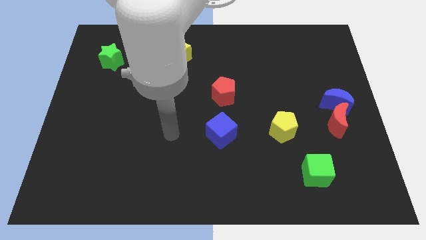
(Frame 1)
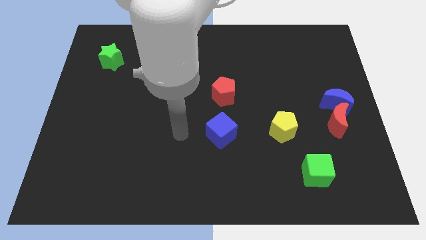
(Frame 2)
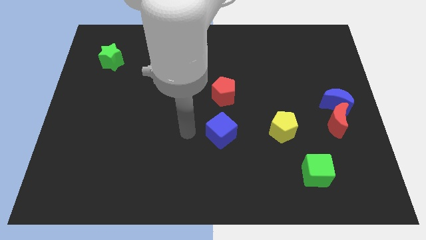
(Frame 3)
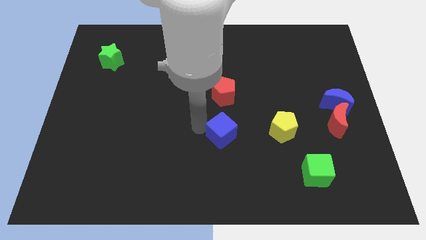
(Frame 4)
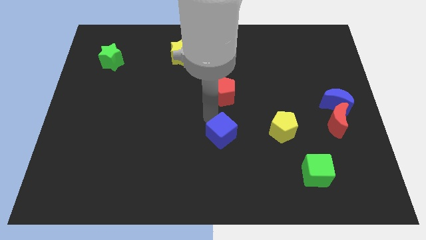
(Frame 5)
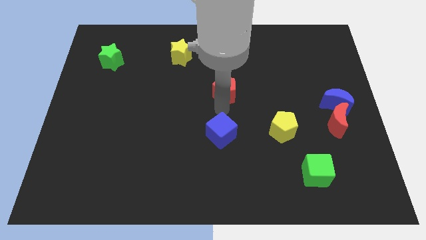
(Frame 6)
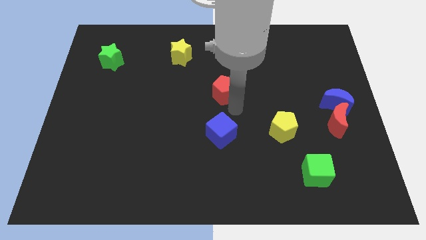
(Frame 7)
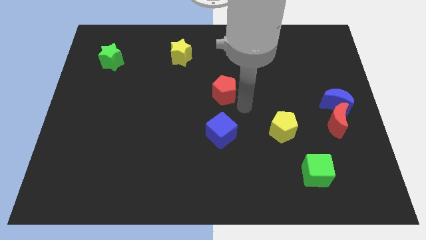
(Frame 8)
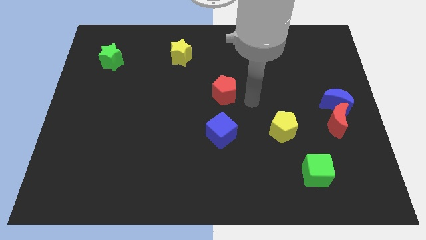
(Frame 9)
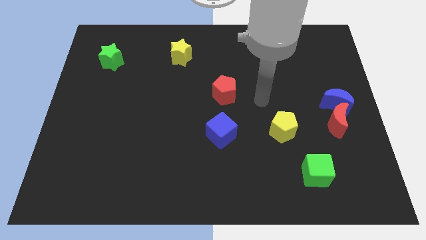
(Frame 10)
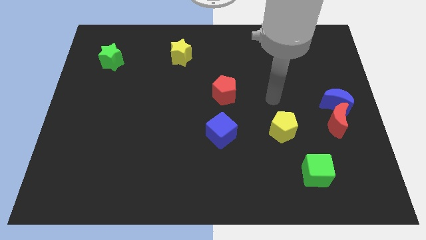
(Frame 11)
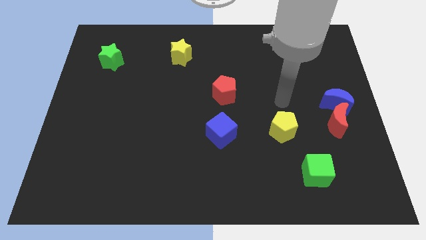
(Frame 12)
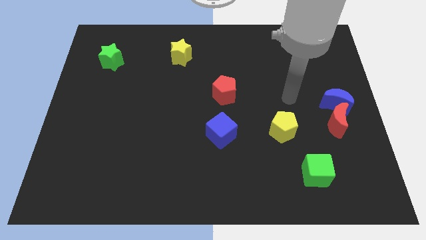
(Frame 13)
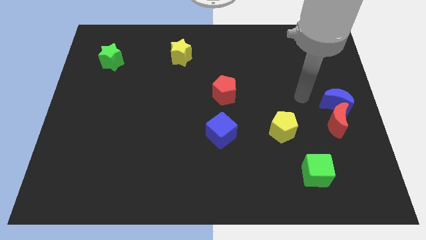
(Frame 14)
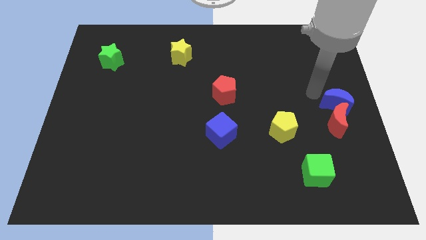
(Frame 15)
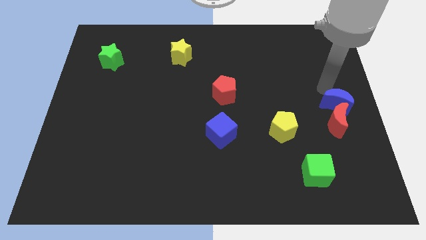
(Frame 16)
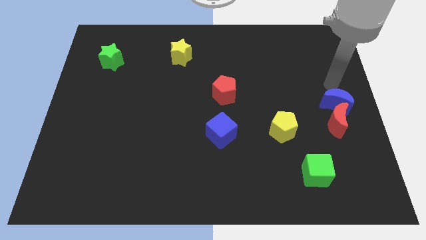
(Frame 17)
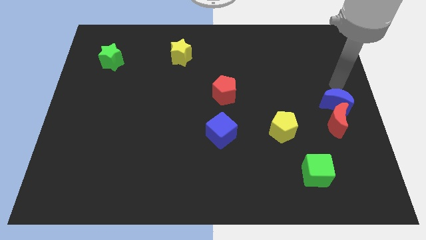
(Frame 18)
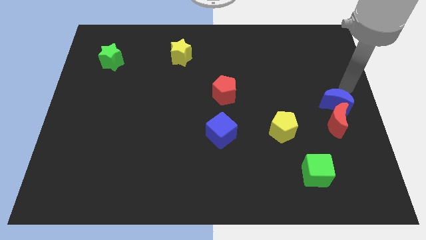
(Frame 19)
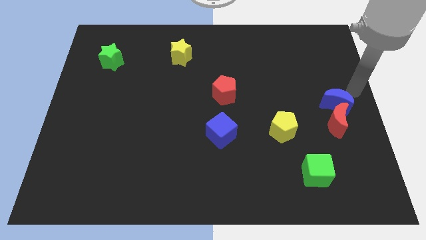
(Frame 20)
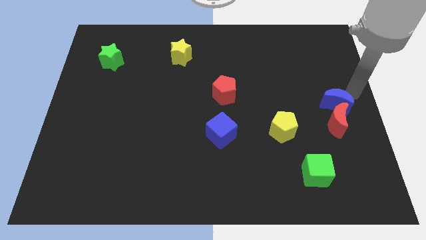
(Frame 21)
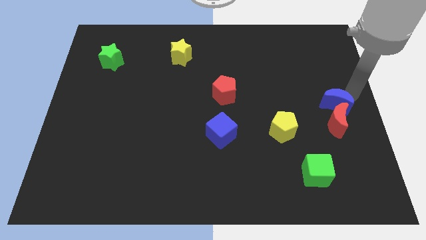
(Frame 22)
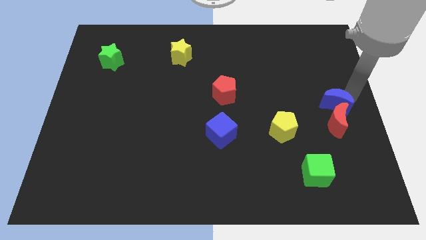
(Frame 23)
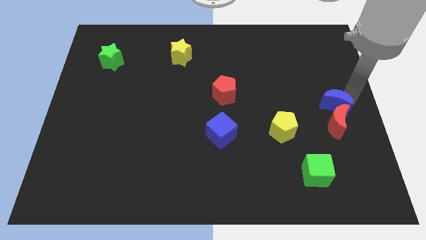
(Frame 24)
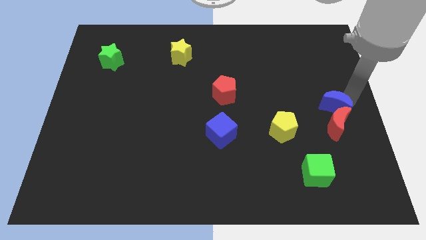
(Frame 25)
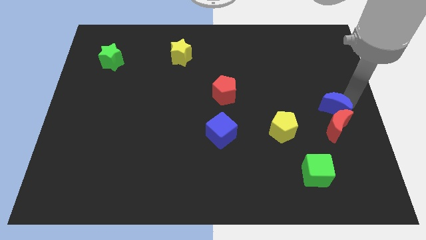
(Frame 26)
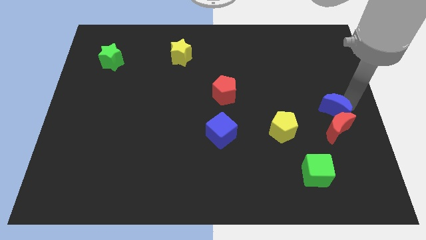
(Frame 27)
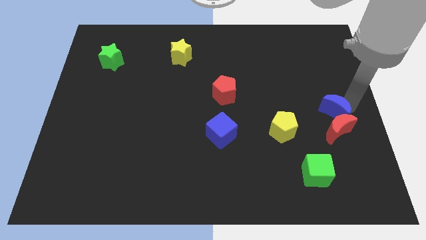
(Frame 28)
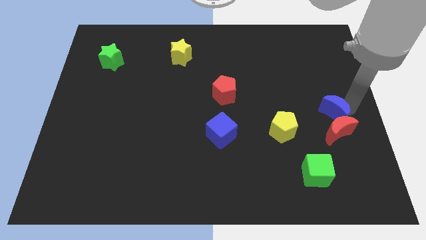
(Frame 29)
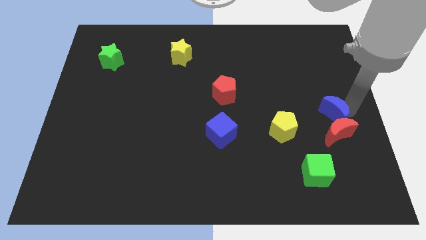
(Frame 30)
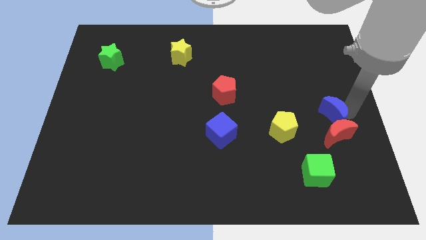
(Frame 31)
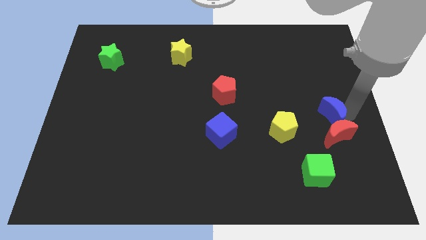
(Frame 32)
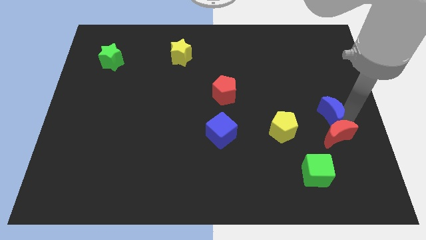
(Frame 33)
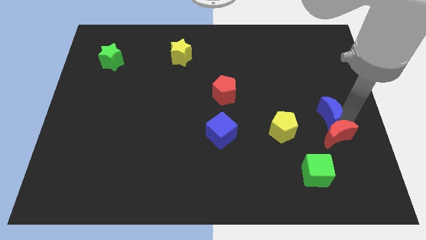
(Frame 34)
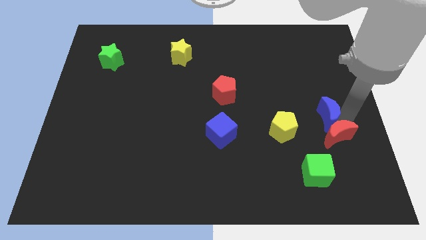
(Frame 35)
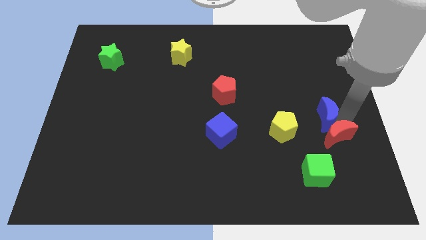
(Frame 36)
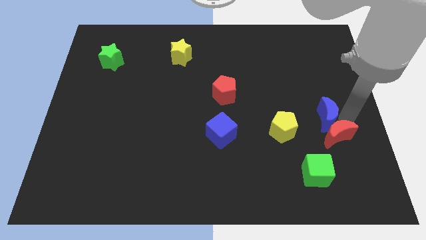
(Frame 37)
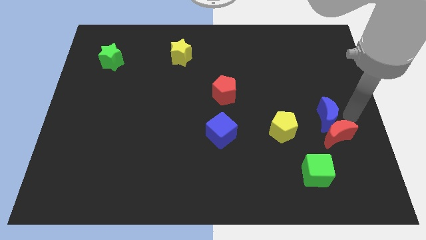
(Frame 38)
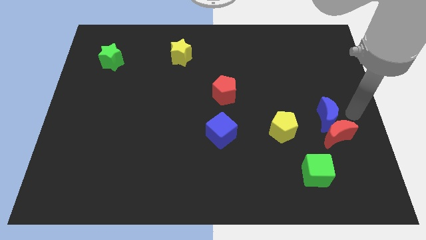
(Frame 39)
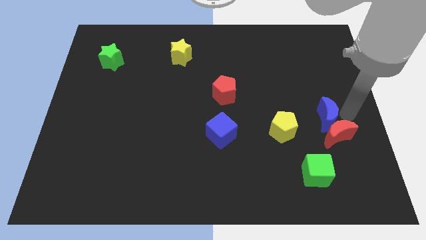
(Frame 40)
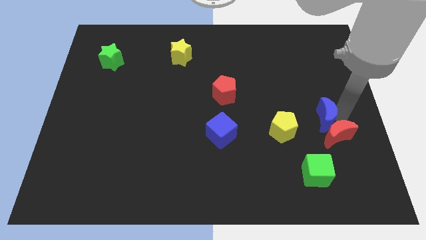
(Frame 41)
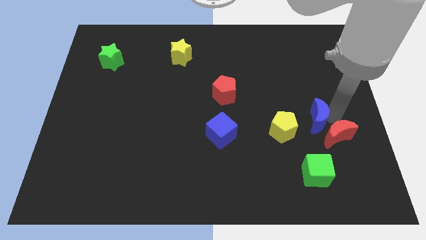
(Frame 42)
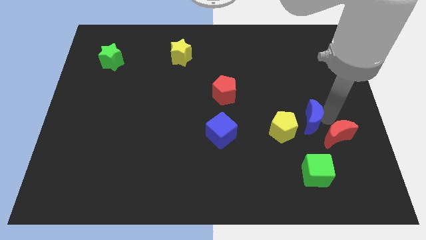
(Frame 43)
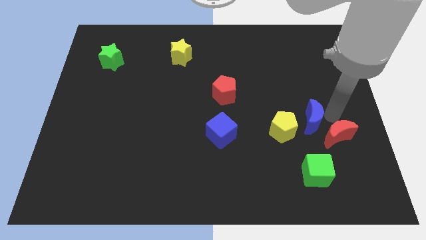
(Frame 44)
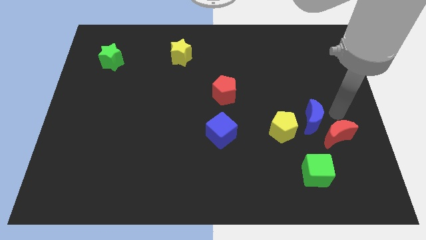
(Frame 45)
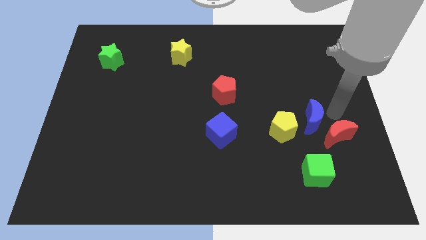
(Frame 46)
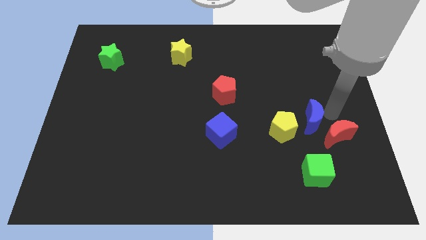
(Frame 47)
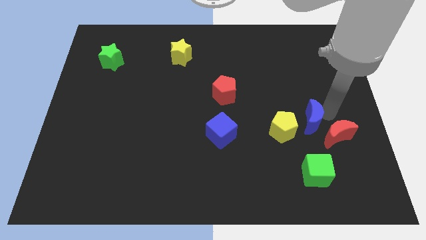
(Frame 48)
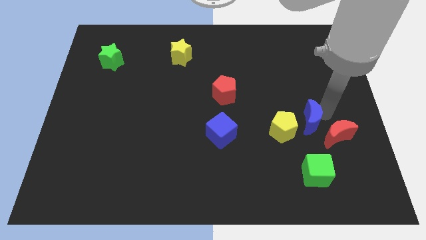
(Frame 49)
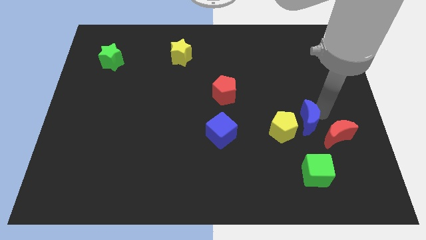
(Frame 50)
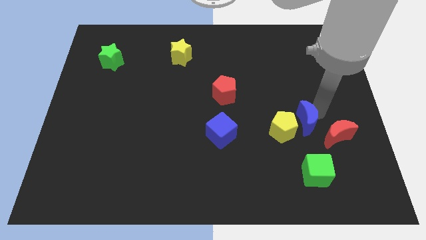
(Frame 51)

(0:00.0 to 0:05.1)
move the blue moon towards the yellow pentagon

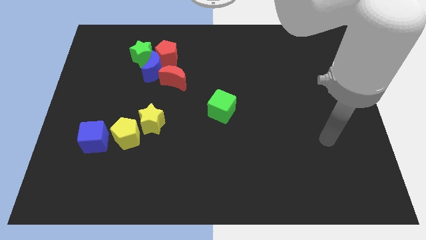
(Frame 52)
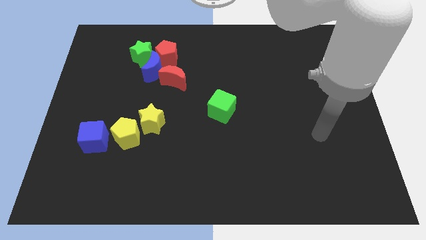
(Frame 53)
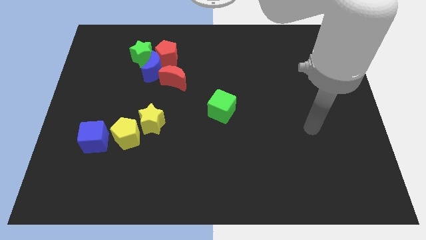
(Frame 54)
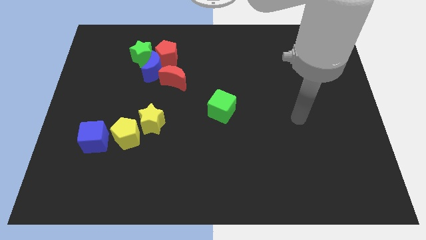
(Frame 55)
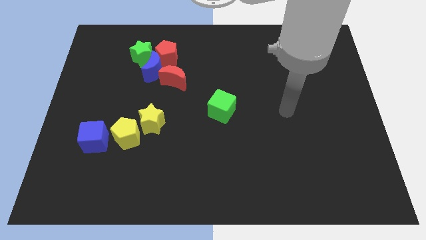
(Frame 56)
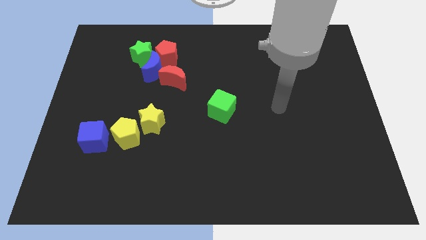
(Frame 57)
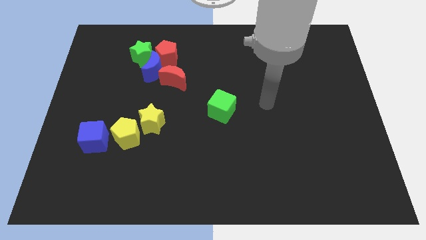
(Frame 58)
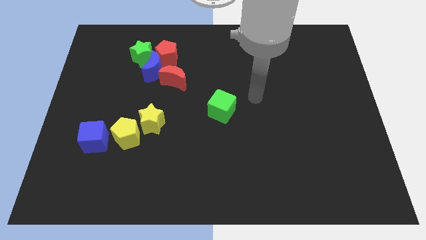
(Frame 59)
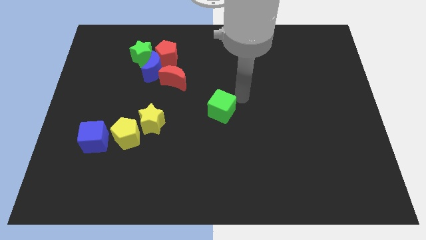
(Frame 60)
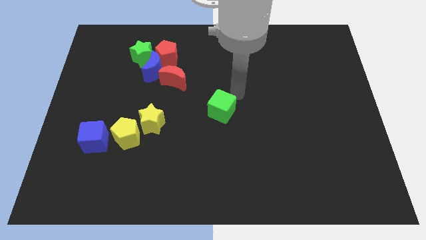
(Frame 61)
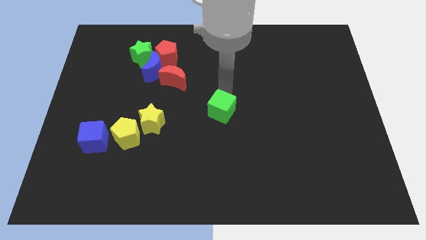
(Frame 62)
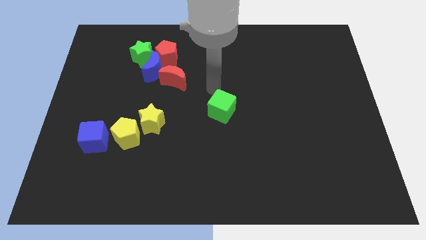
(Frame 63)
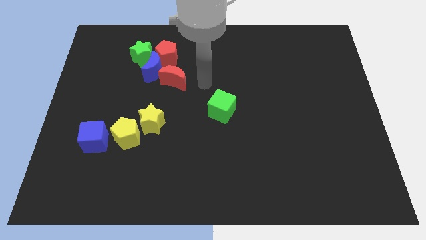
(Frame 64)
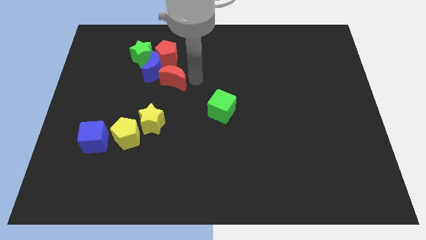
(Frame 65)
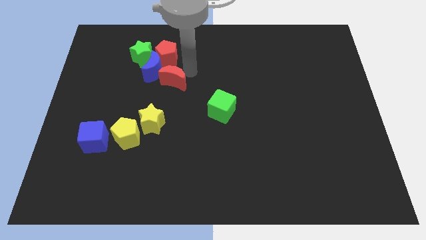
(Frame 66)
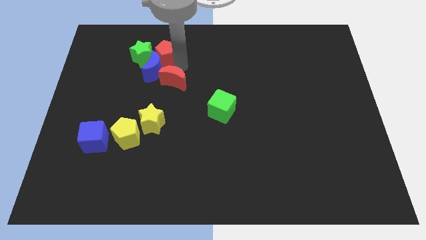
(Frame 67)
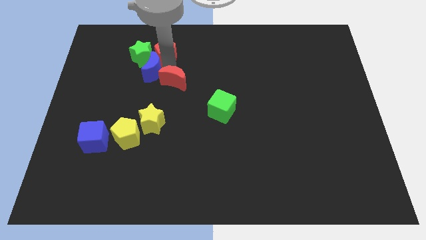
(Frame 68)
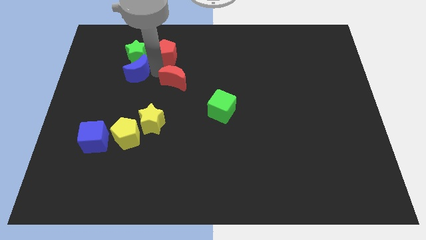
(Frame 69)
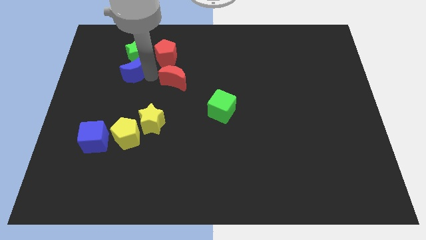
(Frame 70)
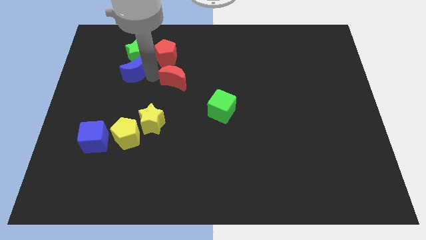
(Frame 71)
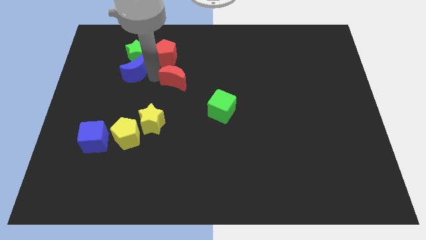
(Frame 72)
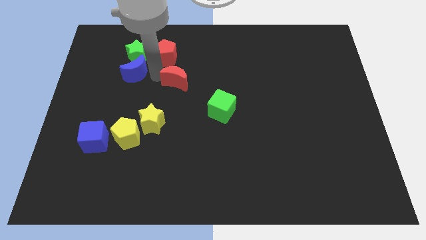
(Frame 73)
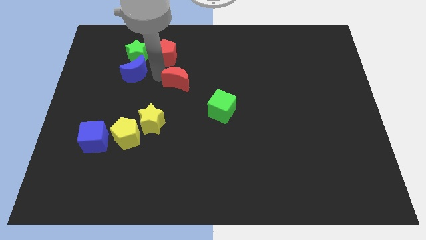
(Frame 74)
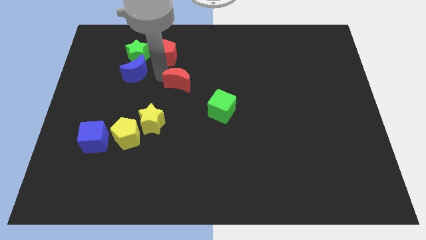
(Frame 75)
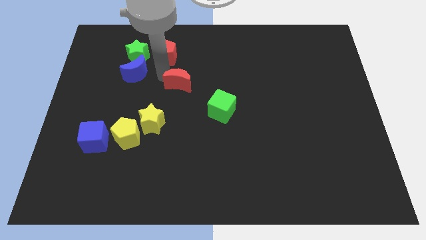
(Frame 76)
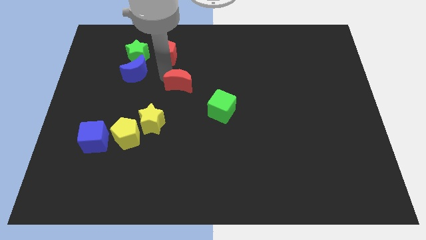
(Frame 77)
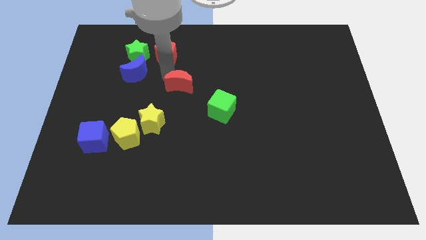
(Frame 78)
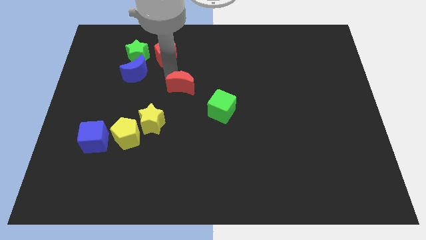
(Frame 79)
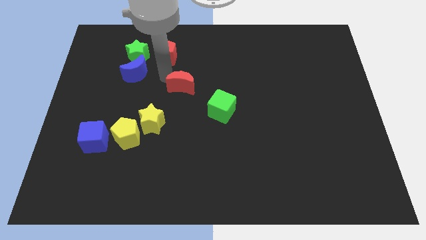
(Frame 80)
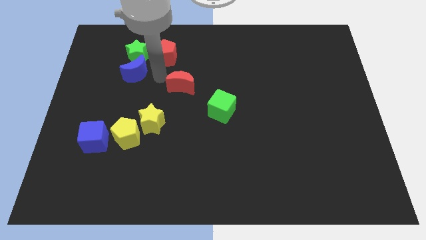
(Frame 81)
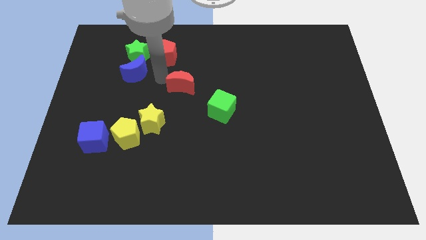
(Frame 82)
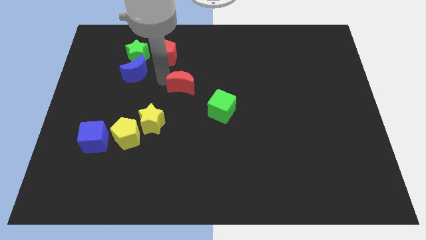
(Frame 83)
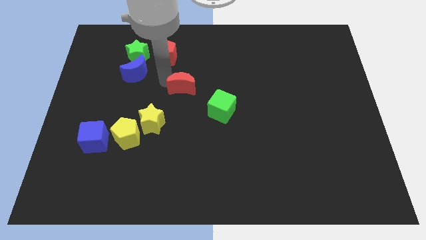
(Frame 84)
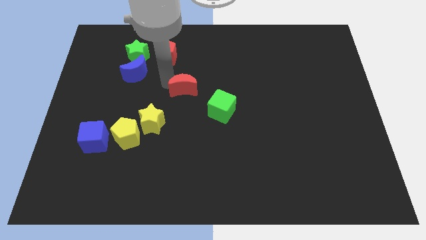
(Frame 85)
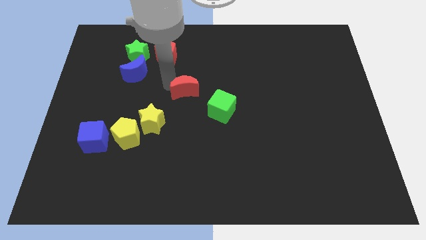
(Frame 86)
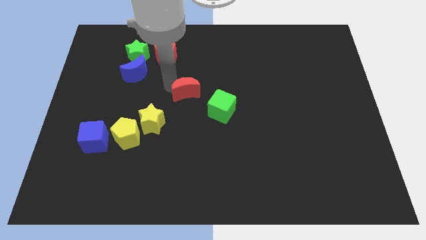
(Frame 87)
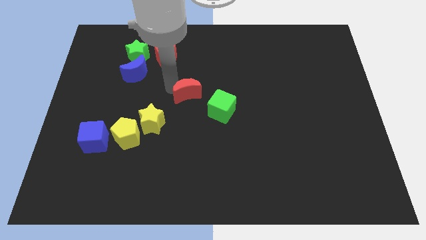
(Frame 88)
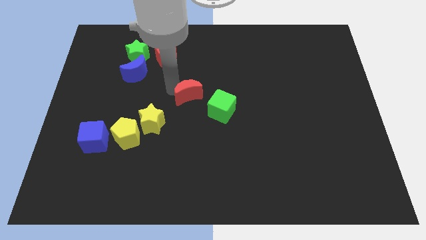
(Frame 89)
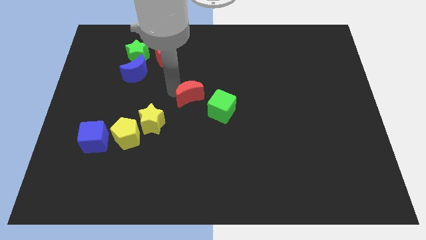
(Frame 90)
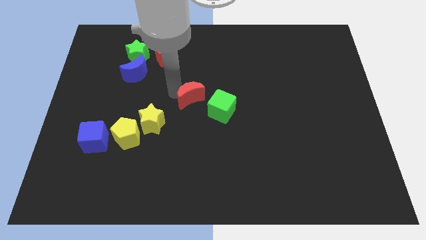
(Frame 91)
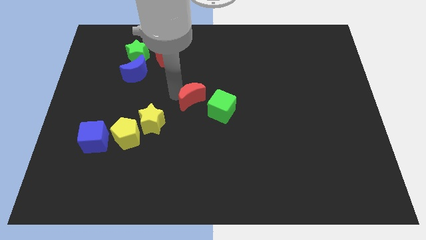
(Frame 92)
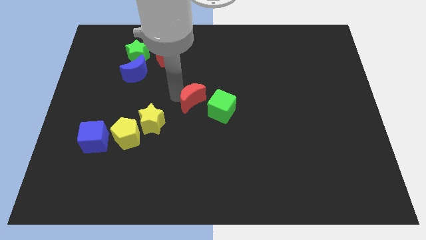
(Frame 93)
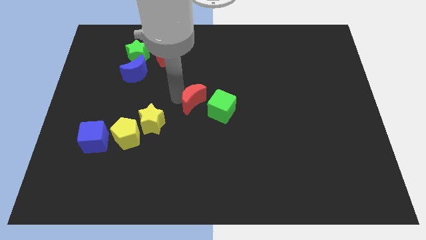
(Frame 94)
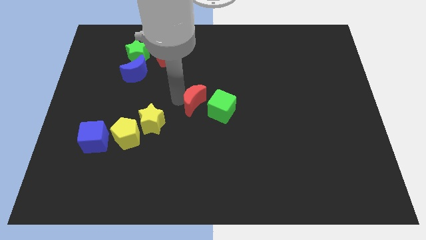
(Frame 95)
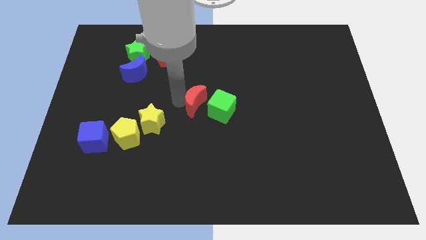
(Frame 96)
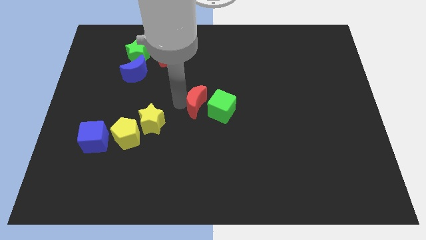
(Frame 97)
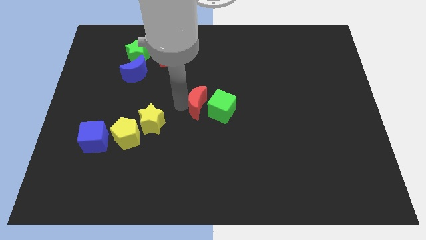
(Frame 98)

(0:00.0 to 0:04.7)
push the red moon to the green cube
